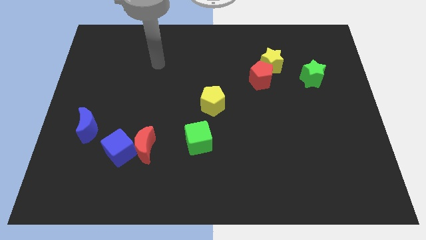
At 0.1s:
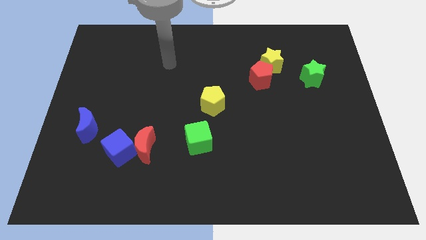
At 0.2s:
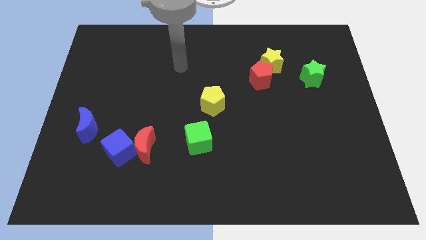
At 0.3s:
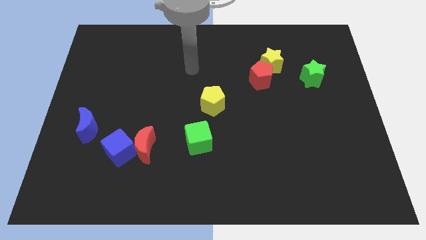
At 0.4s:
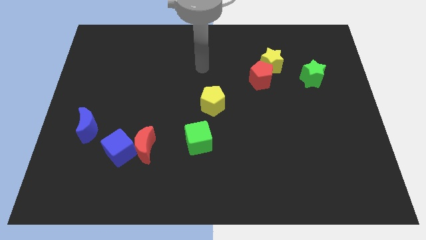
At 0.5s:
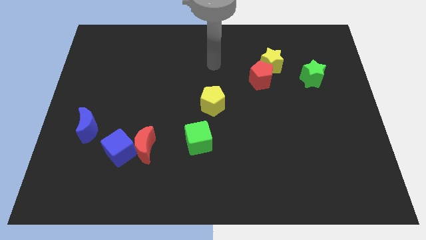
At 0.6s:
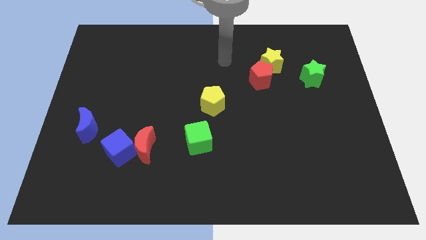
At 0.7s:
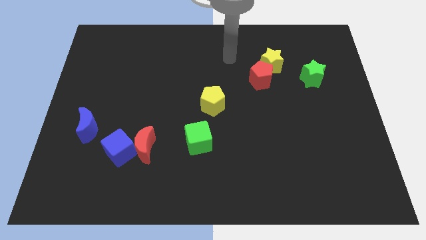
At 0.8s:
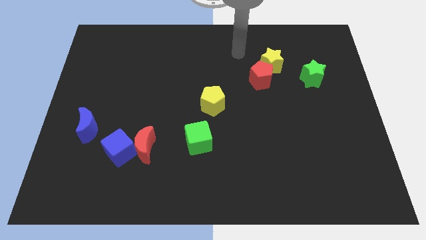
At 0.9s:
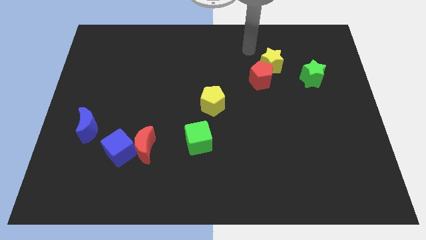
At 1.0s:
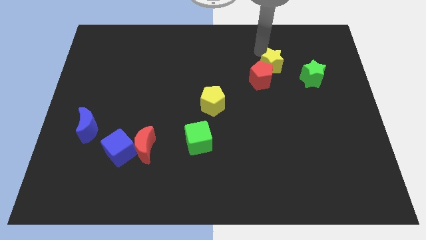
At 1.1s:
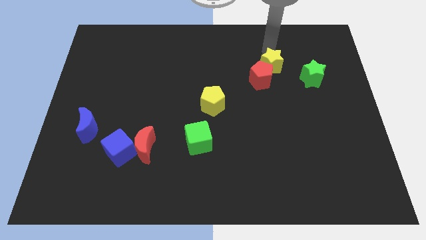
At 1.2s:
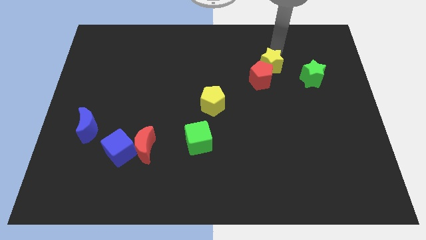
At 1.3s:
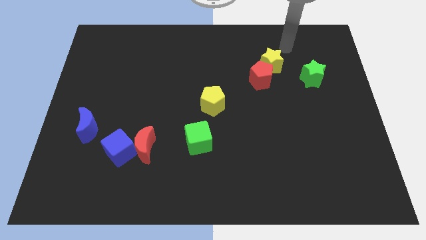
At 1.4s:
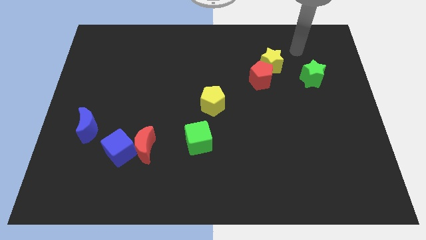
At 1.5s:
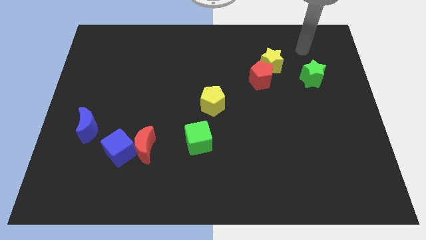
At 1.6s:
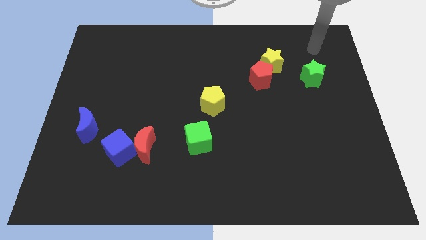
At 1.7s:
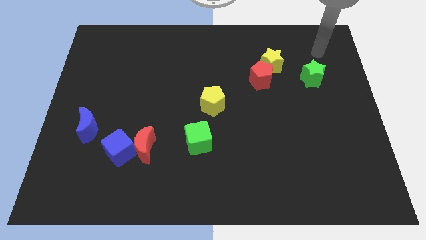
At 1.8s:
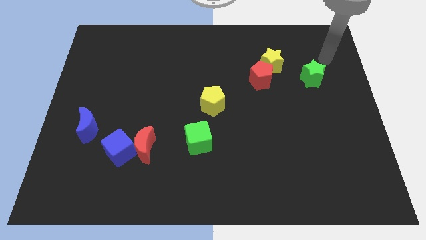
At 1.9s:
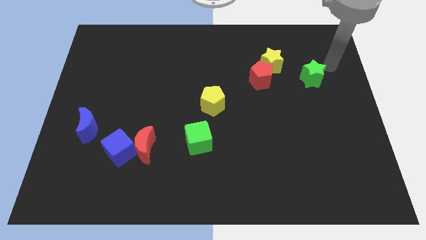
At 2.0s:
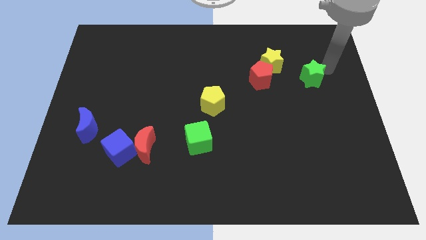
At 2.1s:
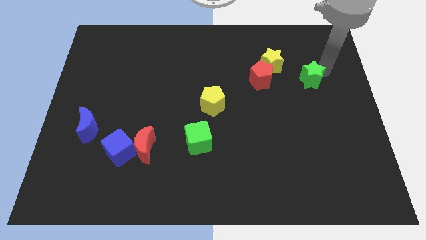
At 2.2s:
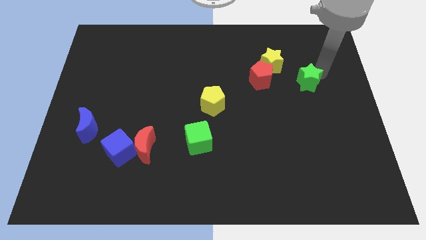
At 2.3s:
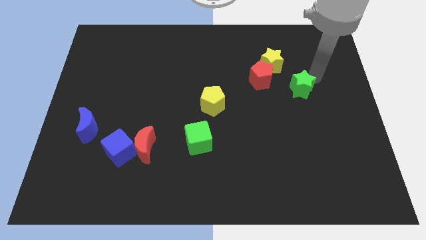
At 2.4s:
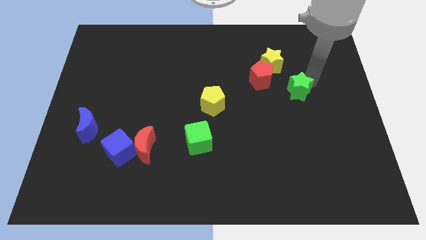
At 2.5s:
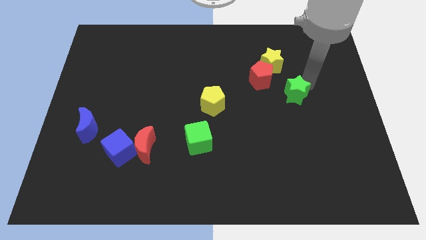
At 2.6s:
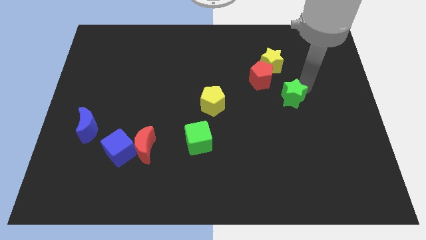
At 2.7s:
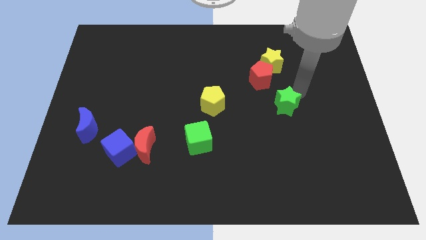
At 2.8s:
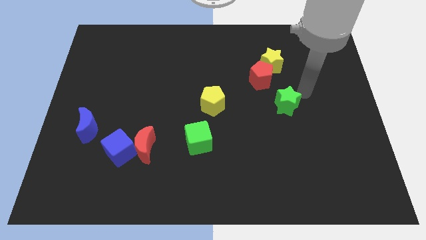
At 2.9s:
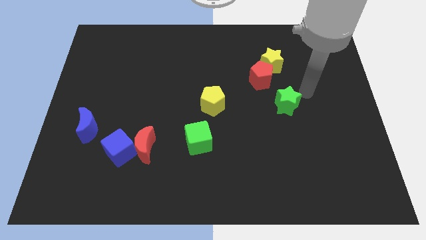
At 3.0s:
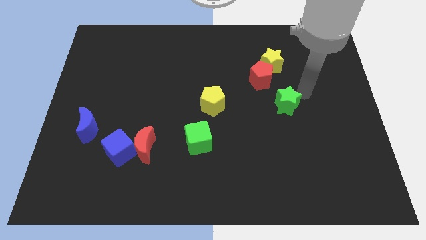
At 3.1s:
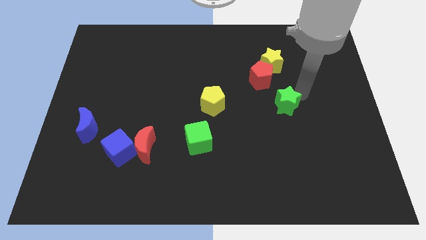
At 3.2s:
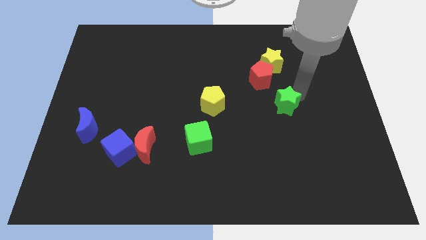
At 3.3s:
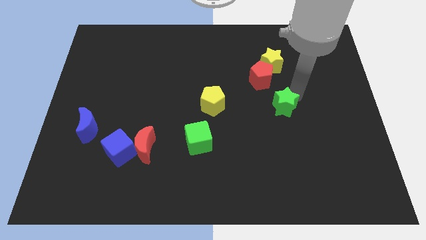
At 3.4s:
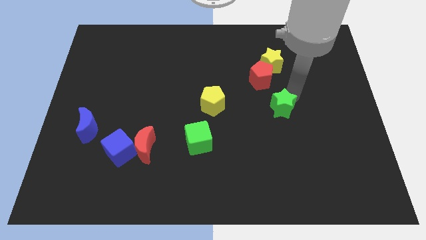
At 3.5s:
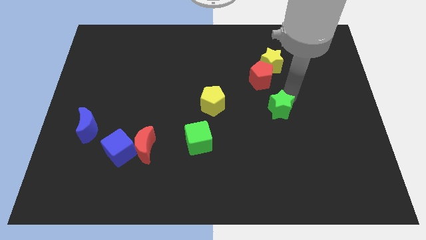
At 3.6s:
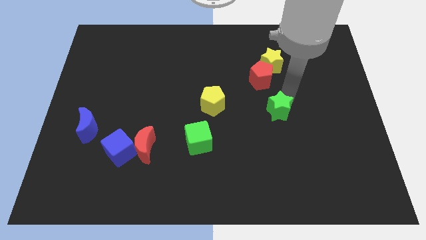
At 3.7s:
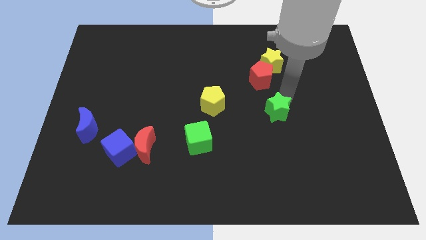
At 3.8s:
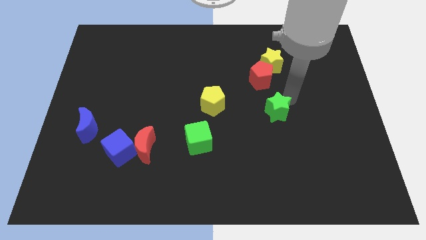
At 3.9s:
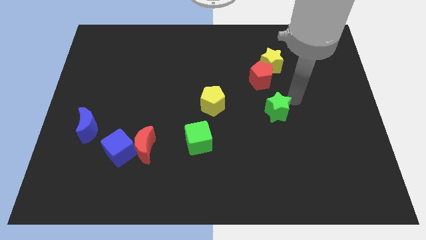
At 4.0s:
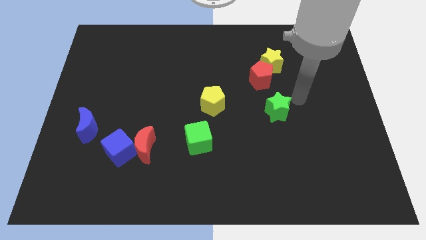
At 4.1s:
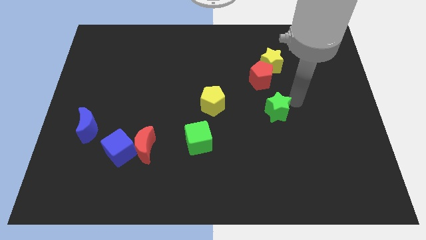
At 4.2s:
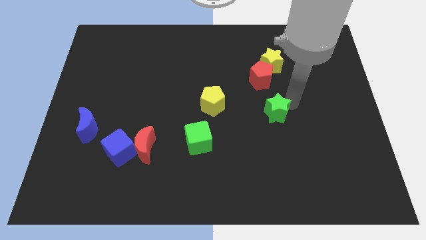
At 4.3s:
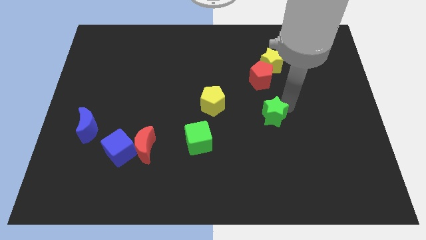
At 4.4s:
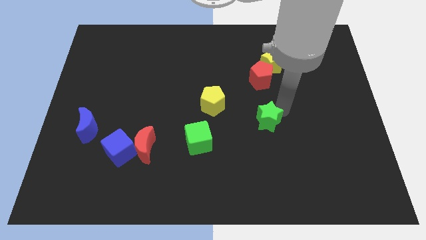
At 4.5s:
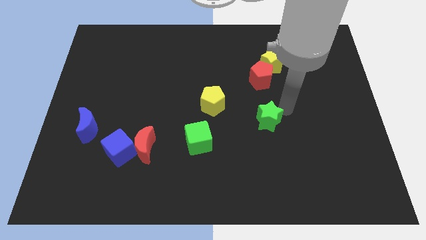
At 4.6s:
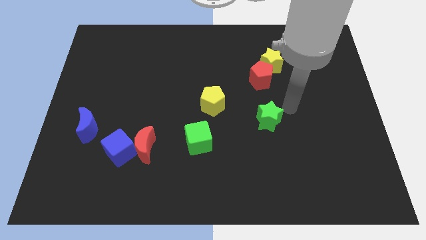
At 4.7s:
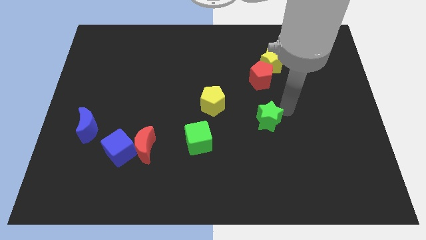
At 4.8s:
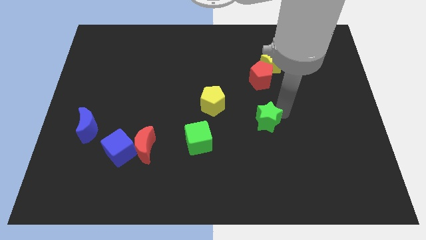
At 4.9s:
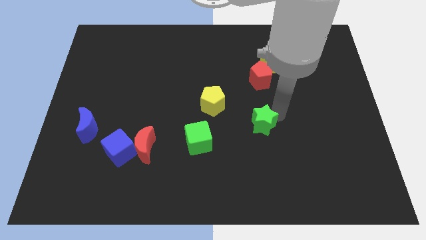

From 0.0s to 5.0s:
push the green star diagonally down and left

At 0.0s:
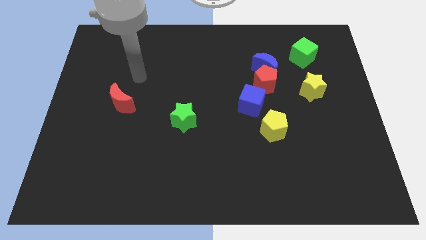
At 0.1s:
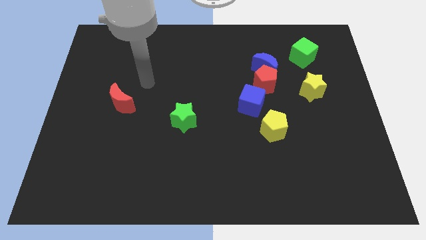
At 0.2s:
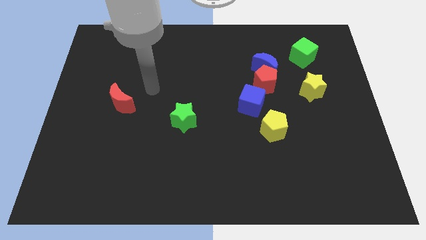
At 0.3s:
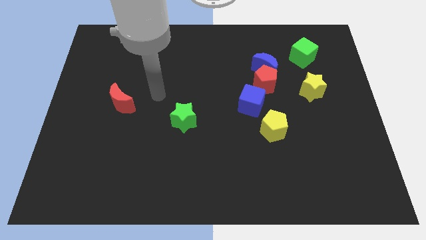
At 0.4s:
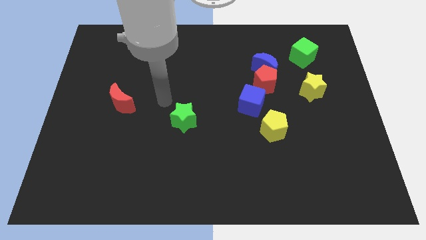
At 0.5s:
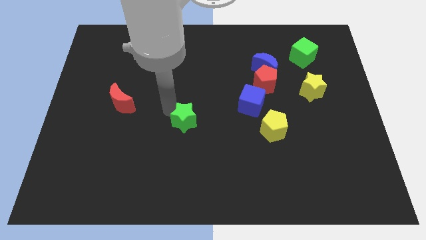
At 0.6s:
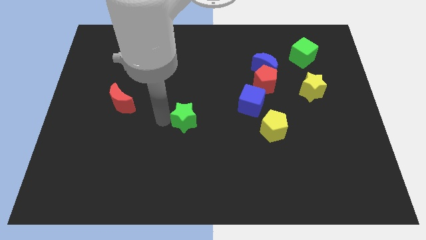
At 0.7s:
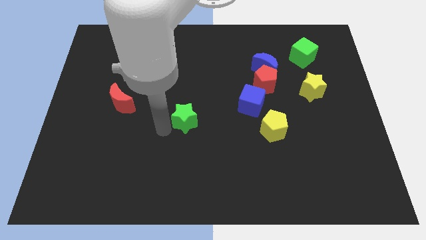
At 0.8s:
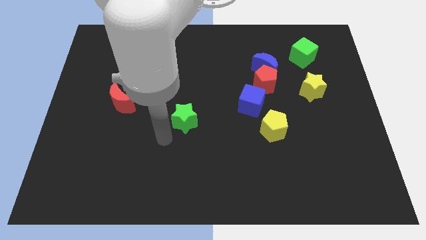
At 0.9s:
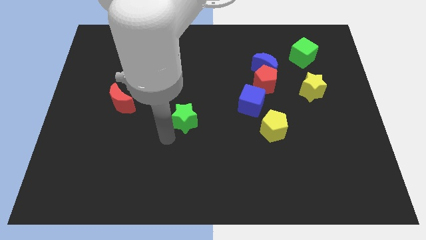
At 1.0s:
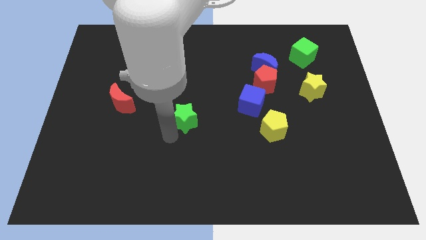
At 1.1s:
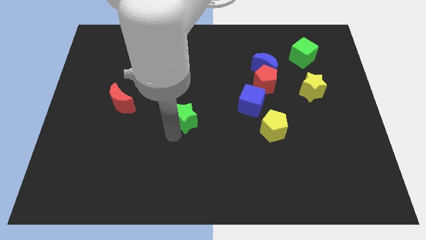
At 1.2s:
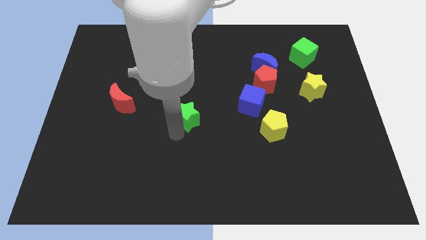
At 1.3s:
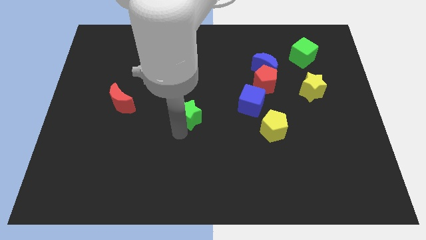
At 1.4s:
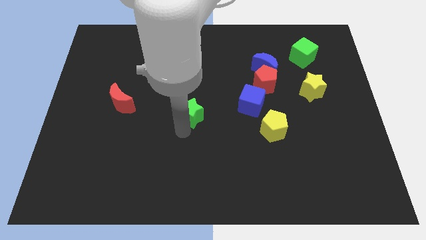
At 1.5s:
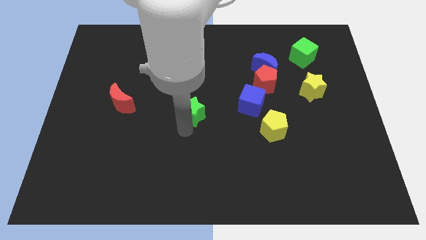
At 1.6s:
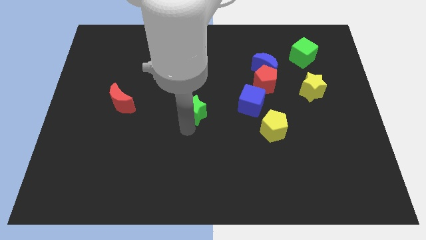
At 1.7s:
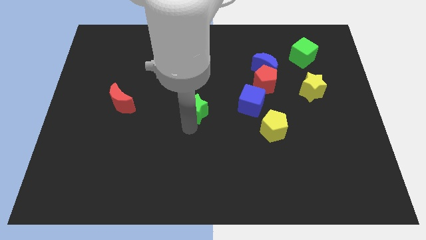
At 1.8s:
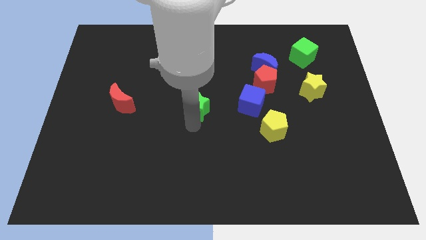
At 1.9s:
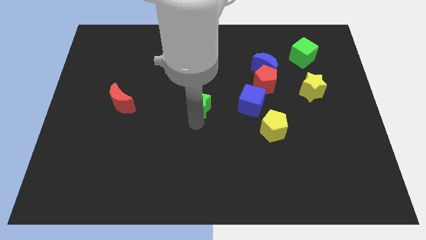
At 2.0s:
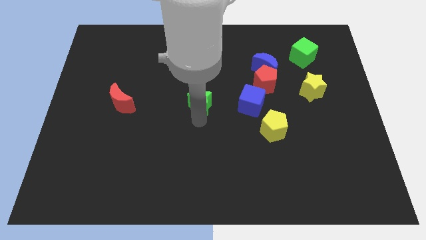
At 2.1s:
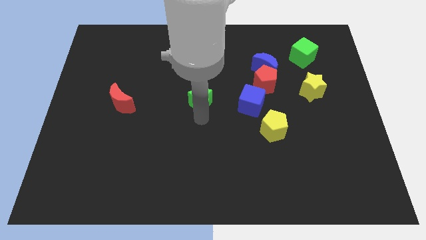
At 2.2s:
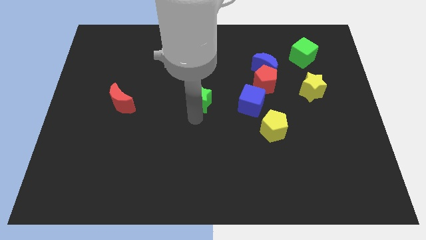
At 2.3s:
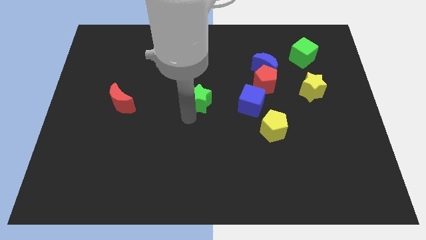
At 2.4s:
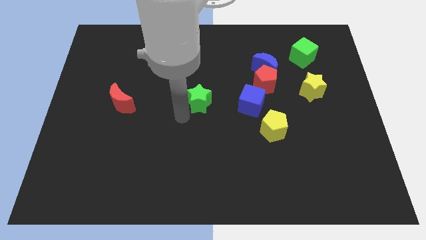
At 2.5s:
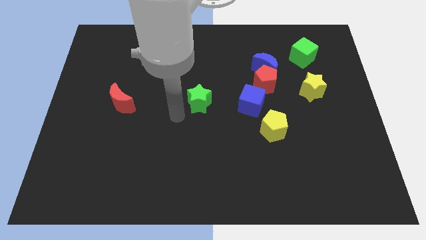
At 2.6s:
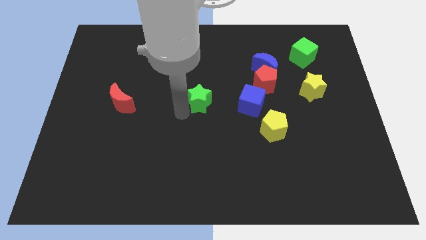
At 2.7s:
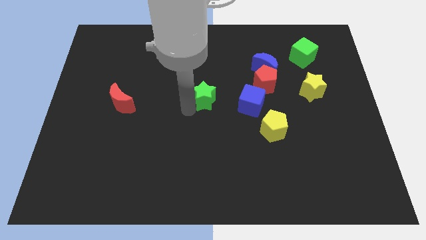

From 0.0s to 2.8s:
move the green star a little upwards and to the right
